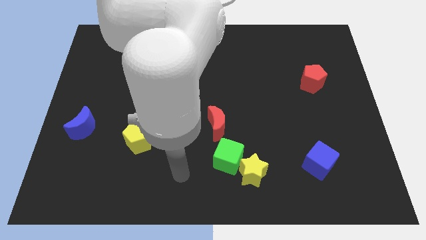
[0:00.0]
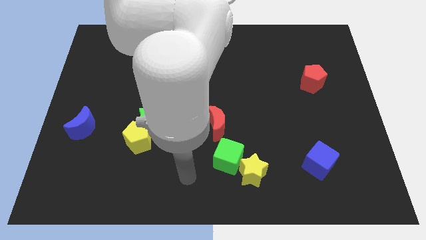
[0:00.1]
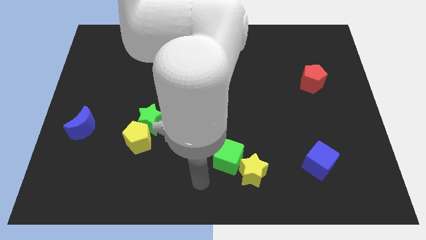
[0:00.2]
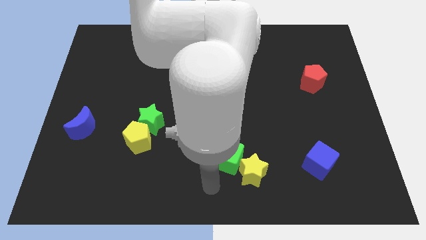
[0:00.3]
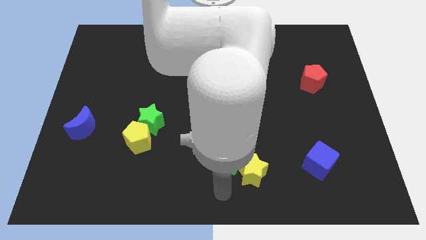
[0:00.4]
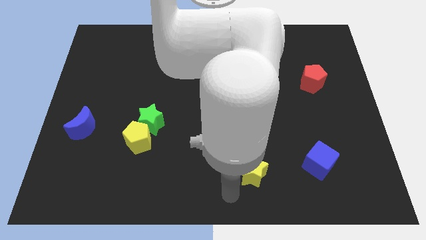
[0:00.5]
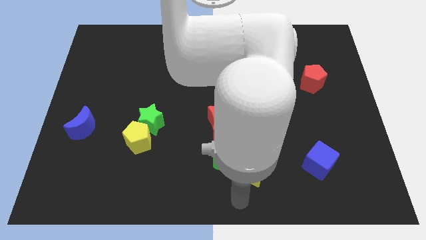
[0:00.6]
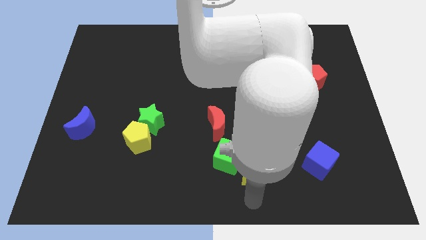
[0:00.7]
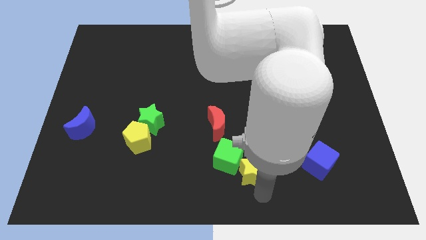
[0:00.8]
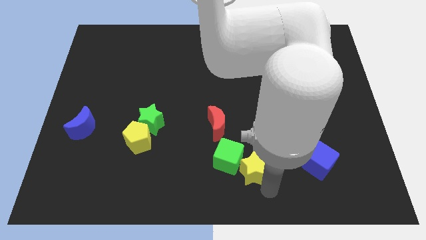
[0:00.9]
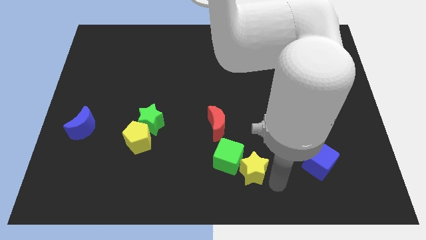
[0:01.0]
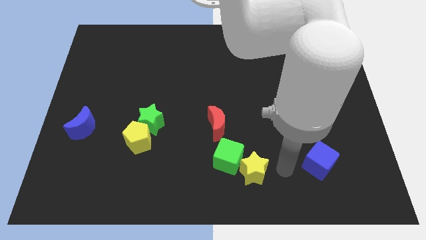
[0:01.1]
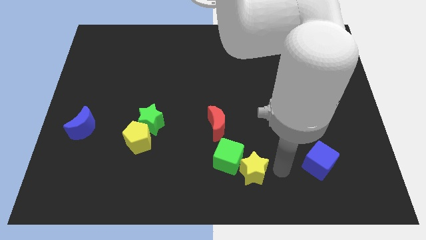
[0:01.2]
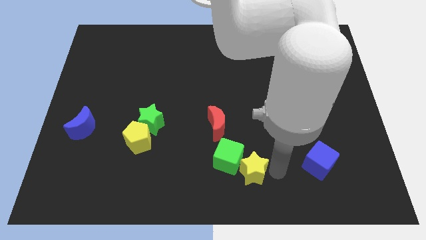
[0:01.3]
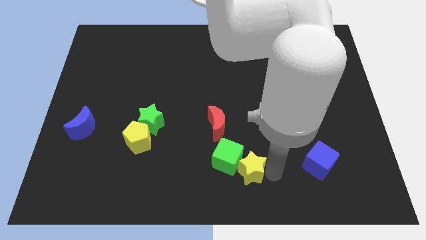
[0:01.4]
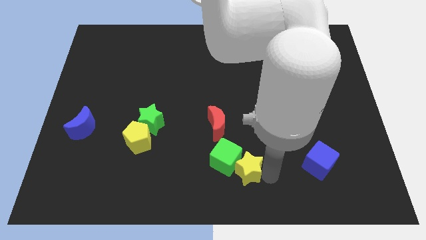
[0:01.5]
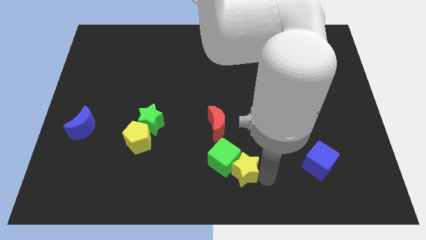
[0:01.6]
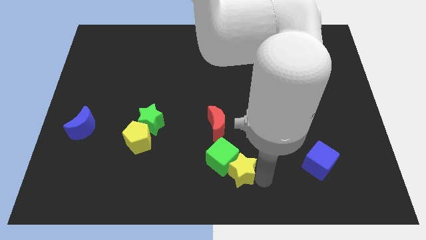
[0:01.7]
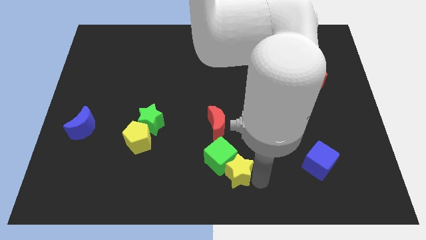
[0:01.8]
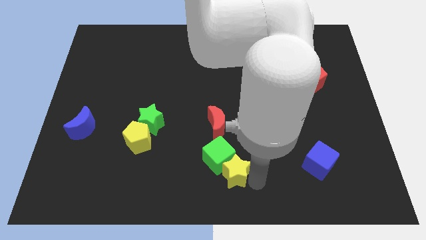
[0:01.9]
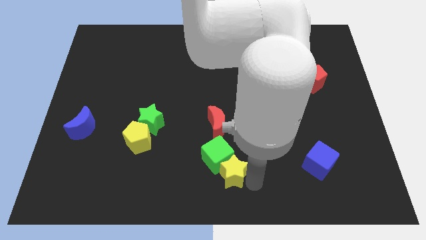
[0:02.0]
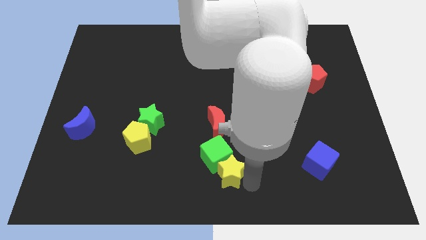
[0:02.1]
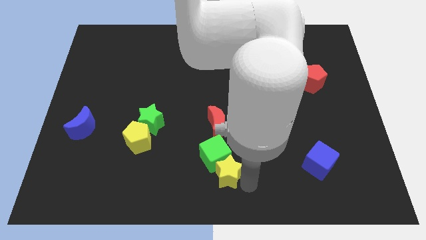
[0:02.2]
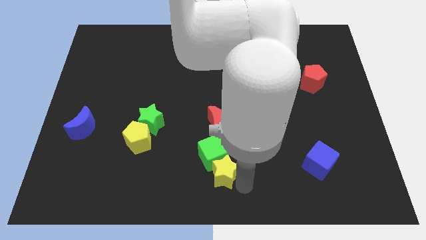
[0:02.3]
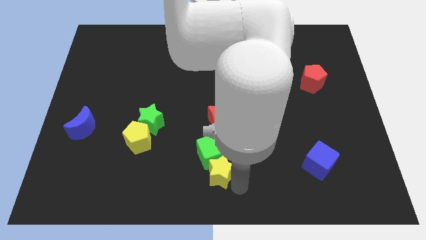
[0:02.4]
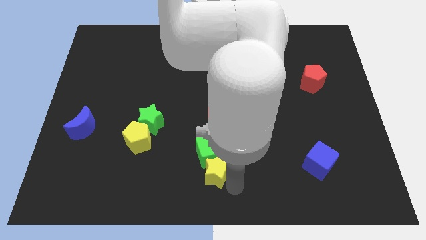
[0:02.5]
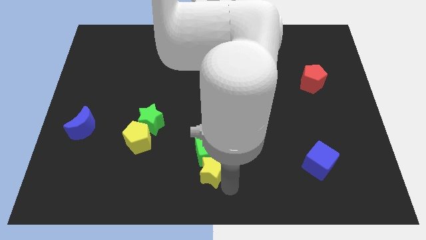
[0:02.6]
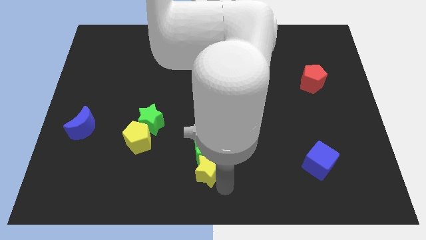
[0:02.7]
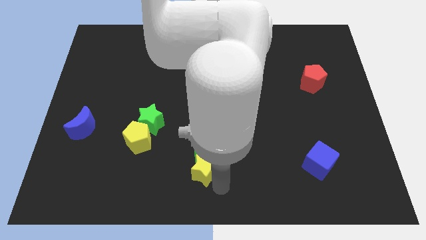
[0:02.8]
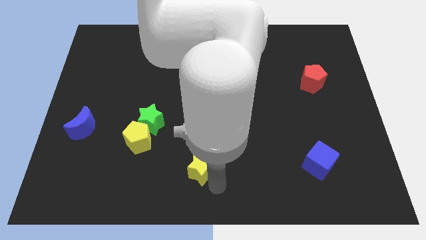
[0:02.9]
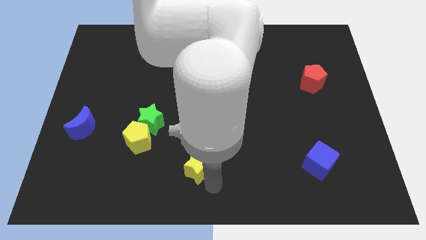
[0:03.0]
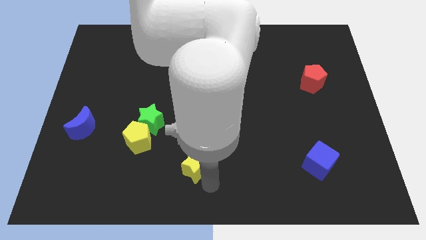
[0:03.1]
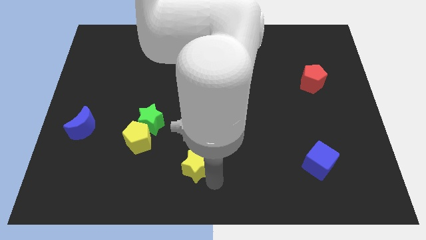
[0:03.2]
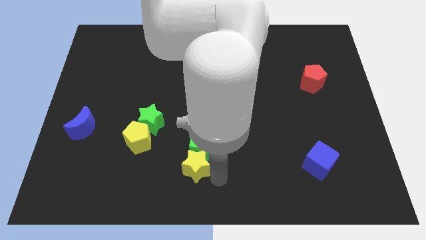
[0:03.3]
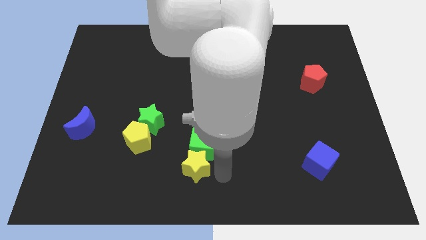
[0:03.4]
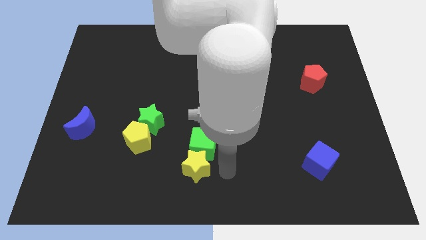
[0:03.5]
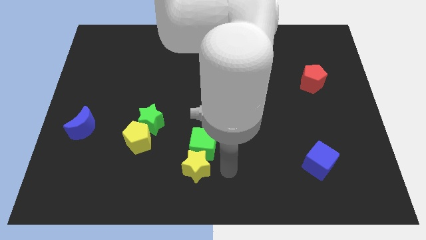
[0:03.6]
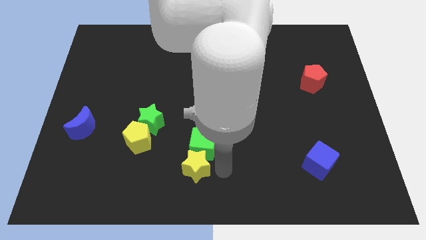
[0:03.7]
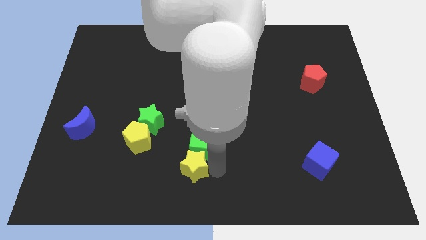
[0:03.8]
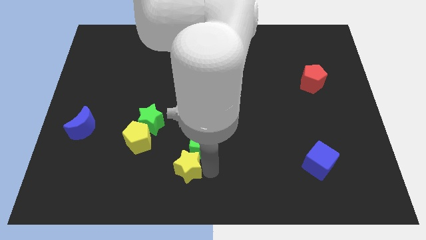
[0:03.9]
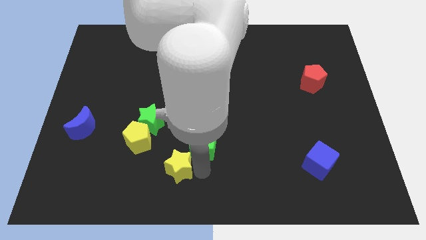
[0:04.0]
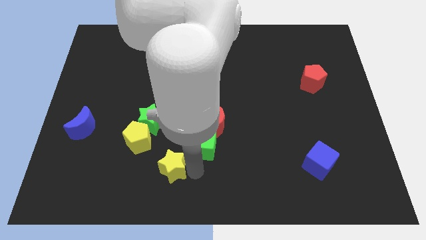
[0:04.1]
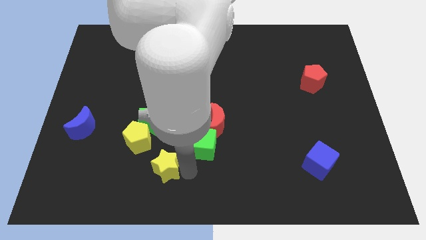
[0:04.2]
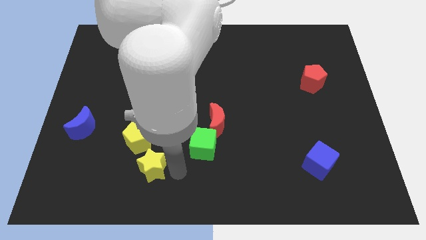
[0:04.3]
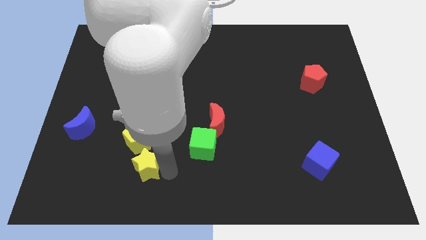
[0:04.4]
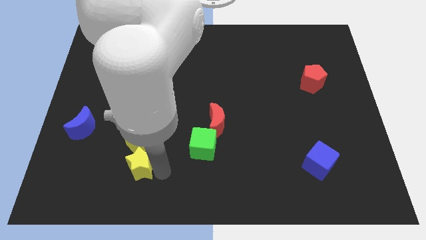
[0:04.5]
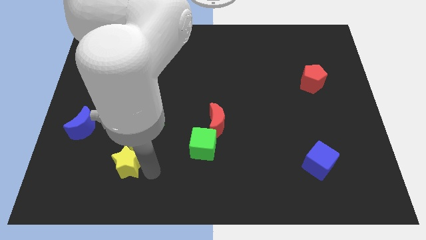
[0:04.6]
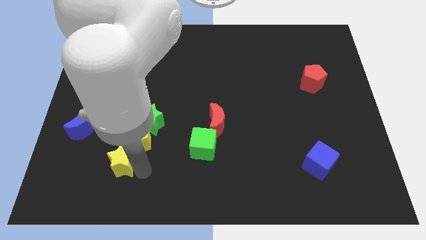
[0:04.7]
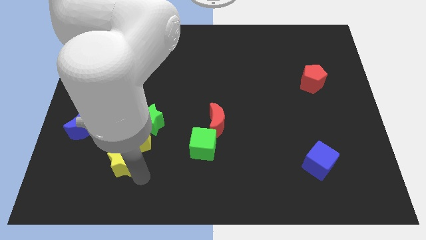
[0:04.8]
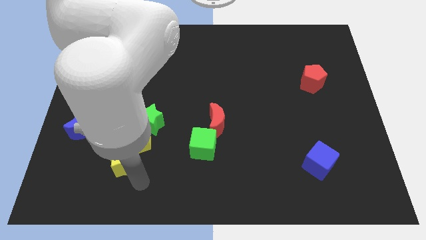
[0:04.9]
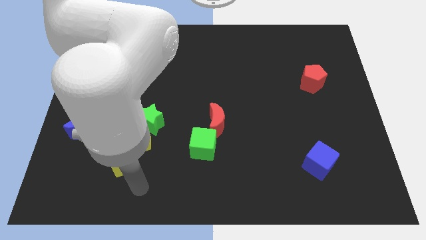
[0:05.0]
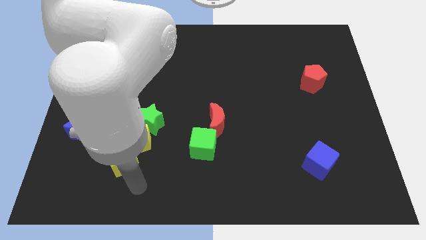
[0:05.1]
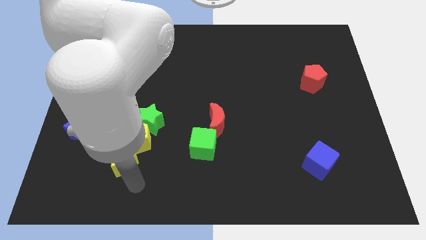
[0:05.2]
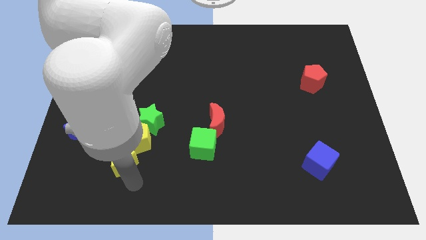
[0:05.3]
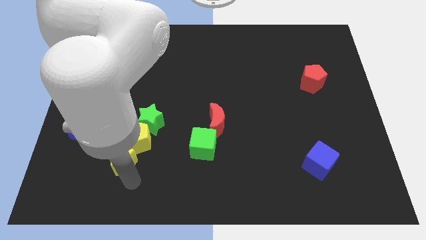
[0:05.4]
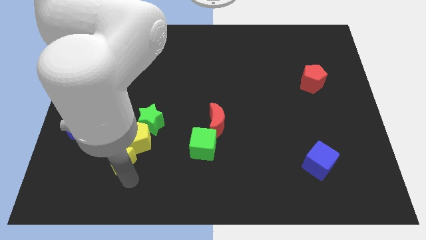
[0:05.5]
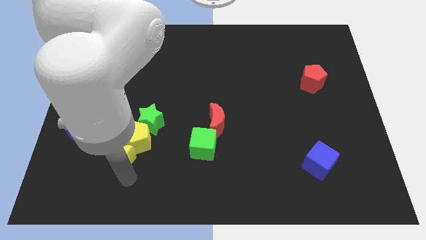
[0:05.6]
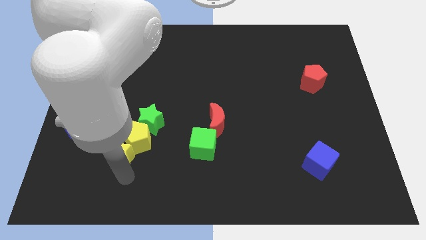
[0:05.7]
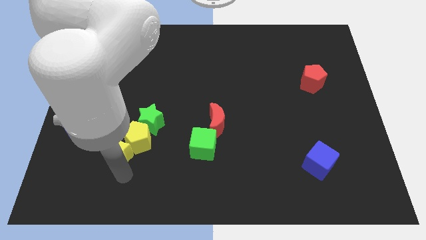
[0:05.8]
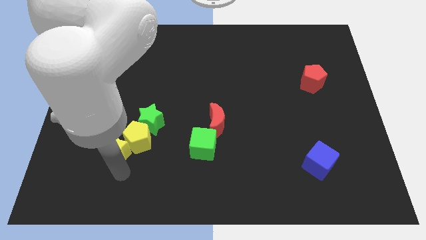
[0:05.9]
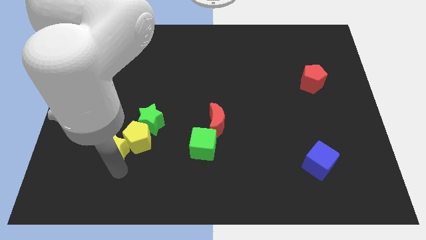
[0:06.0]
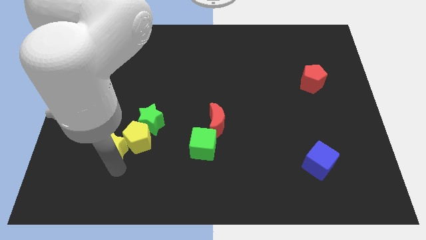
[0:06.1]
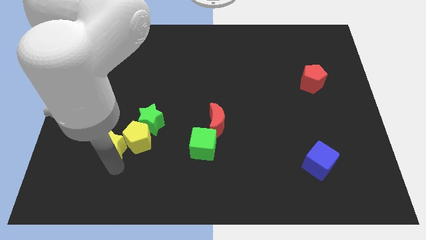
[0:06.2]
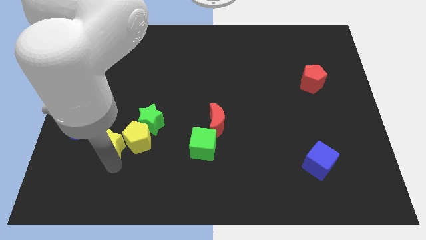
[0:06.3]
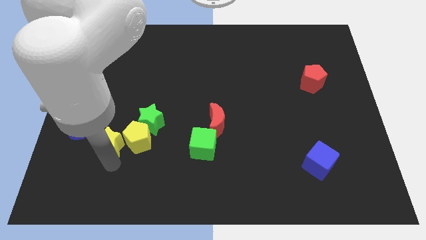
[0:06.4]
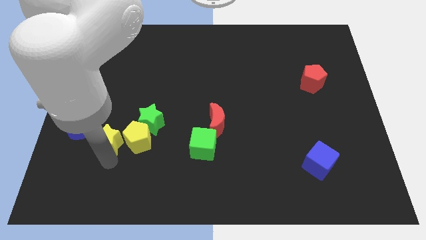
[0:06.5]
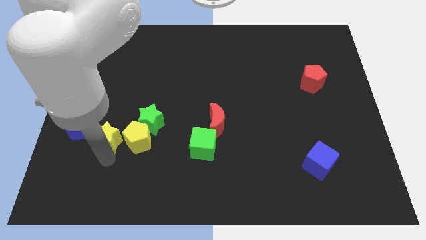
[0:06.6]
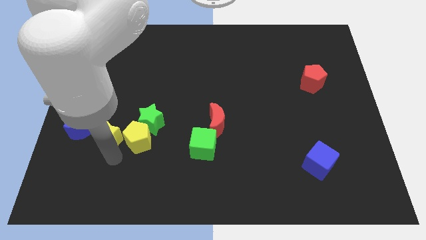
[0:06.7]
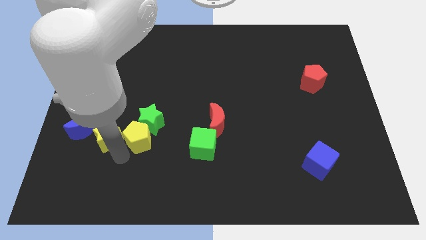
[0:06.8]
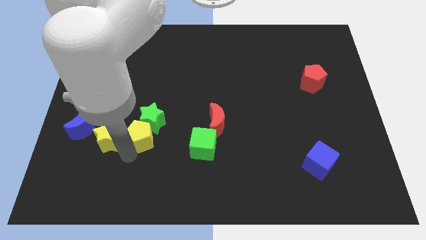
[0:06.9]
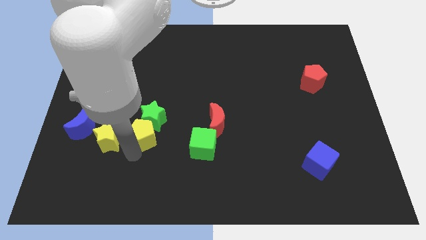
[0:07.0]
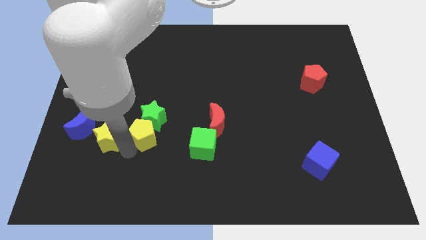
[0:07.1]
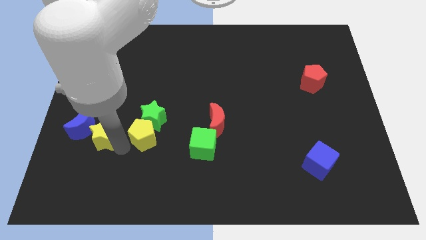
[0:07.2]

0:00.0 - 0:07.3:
put the yellow star towards the blue moon
